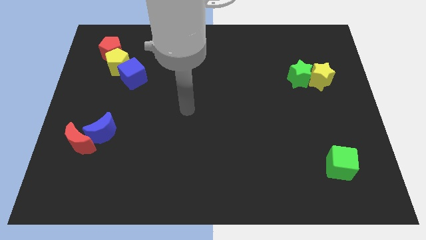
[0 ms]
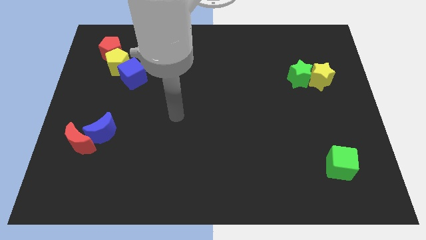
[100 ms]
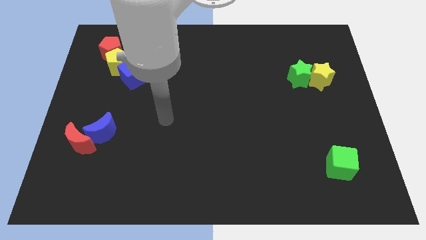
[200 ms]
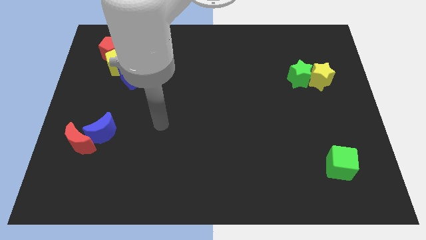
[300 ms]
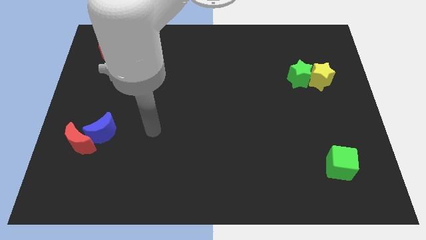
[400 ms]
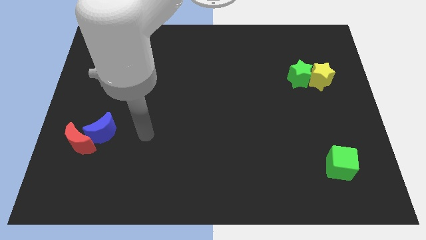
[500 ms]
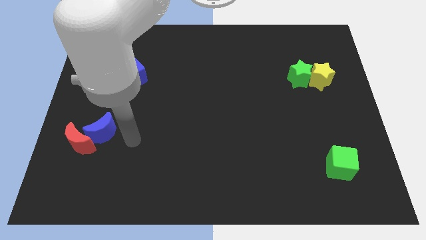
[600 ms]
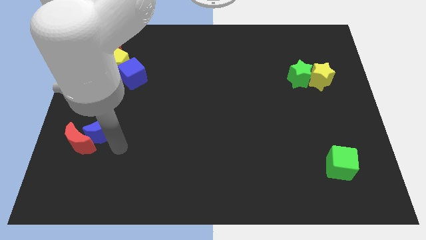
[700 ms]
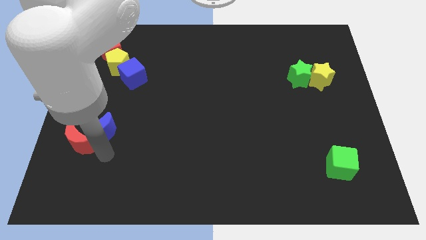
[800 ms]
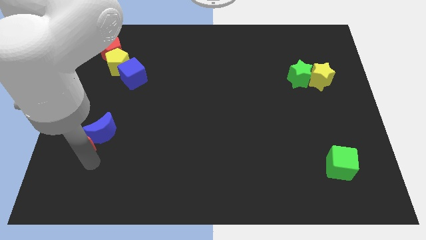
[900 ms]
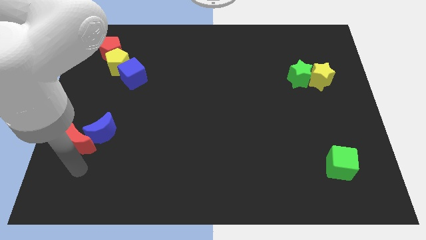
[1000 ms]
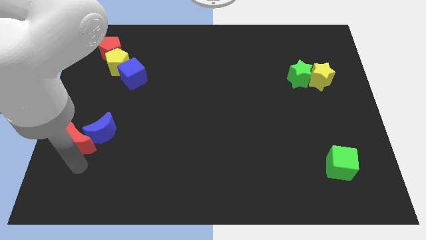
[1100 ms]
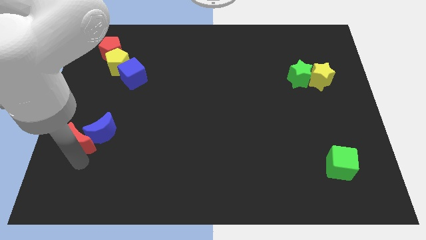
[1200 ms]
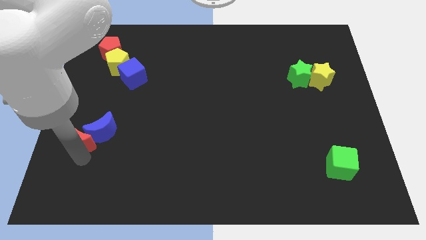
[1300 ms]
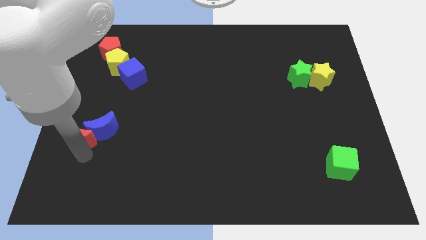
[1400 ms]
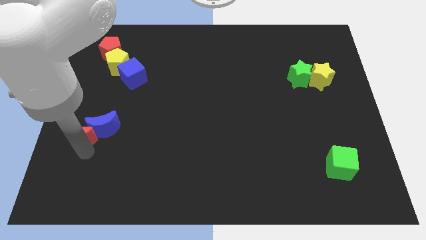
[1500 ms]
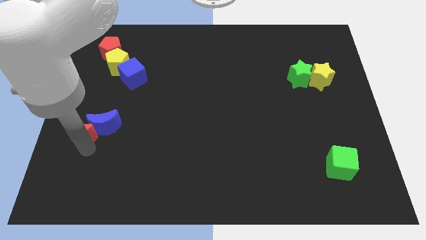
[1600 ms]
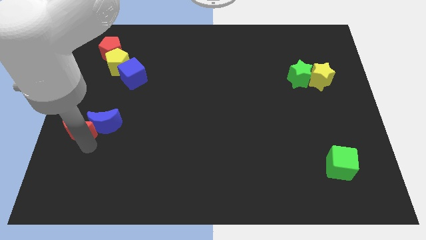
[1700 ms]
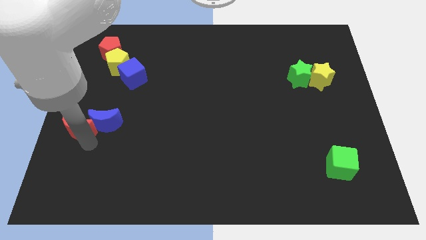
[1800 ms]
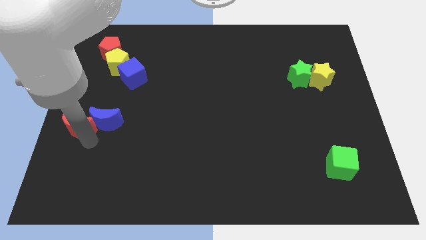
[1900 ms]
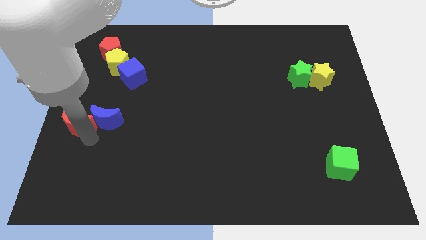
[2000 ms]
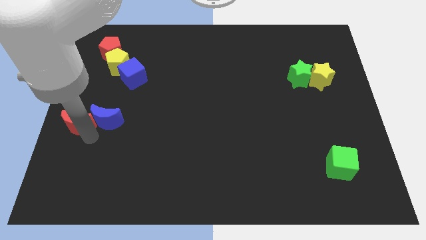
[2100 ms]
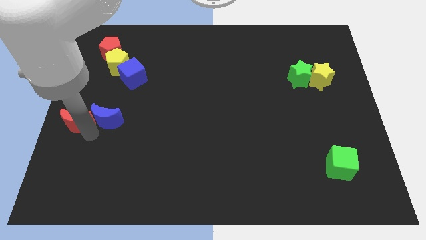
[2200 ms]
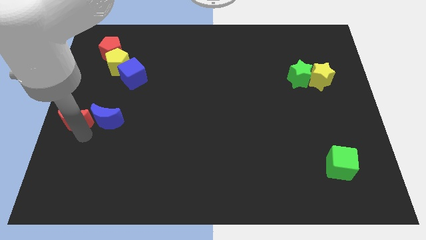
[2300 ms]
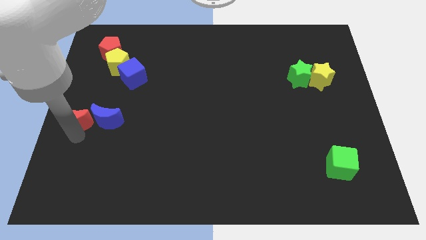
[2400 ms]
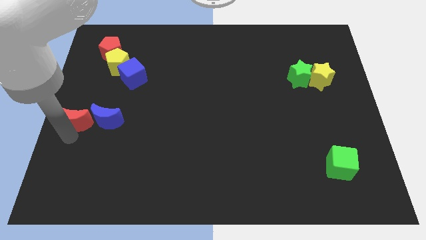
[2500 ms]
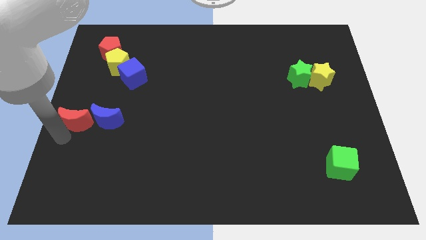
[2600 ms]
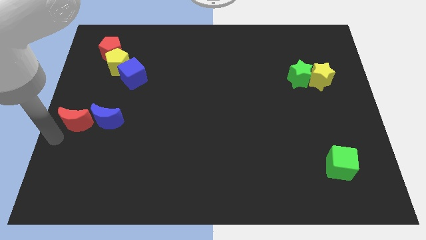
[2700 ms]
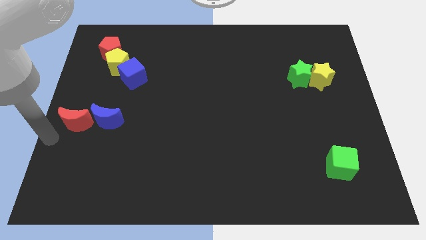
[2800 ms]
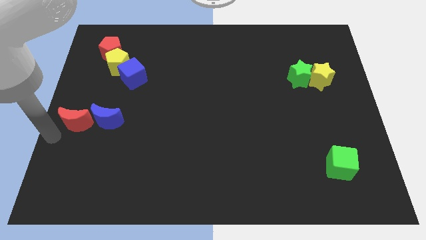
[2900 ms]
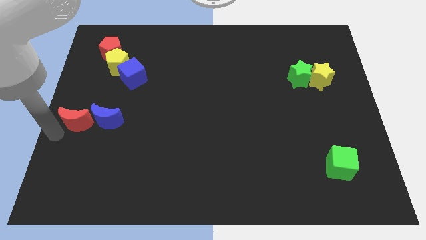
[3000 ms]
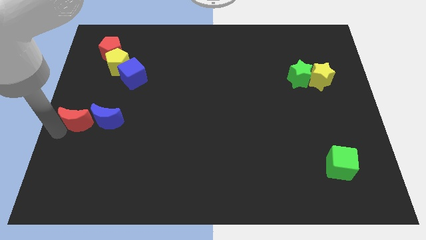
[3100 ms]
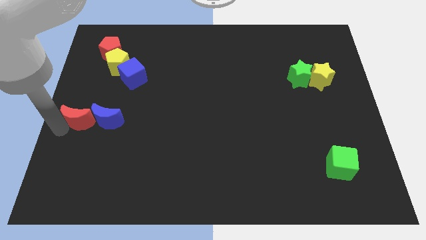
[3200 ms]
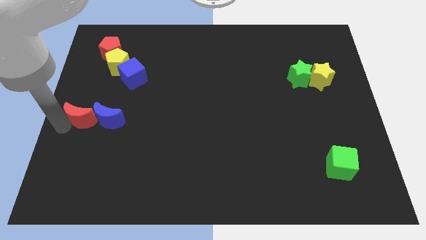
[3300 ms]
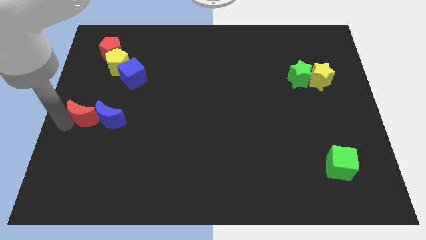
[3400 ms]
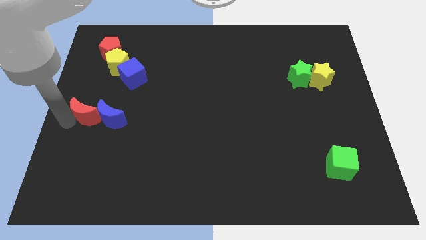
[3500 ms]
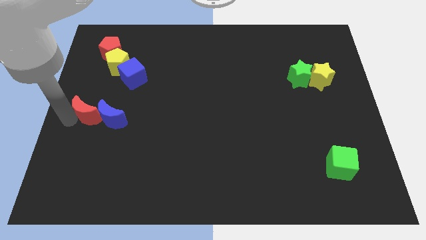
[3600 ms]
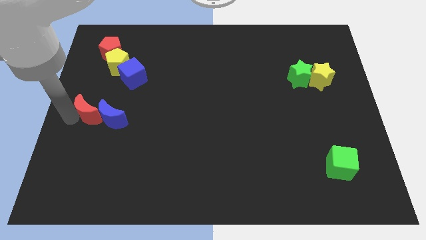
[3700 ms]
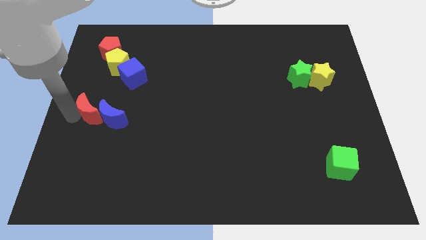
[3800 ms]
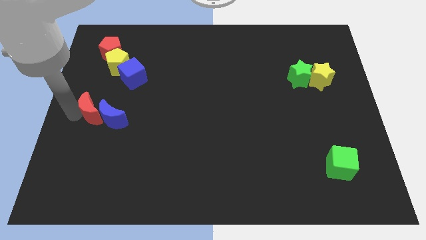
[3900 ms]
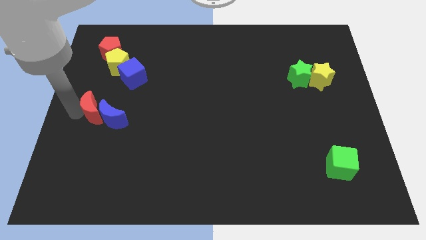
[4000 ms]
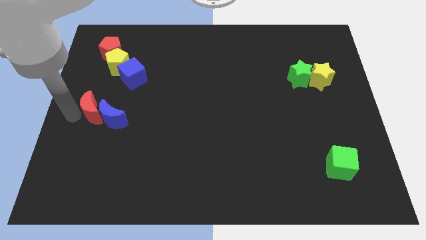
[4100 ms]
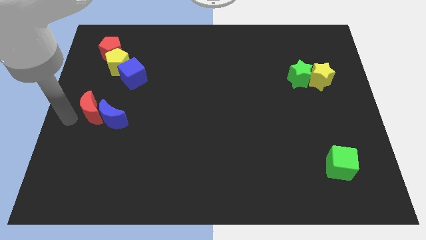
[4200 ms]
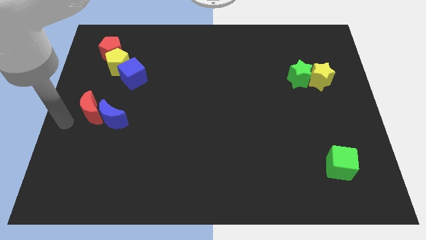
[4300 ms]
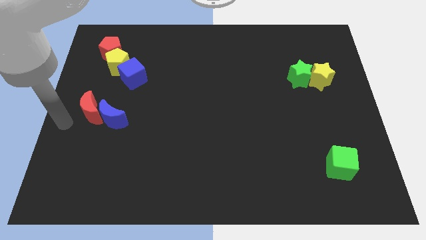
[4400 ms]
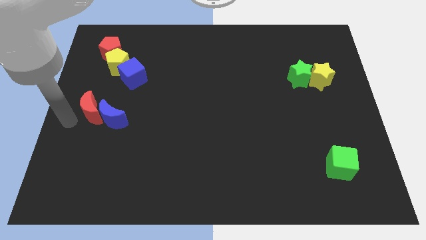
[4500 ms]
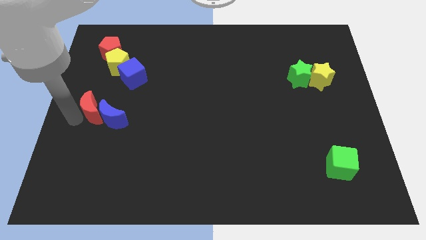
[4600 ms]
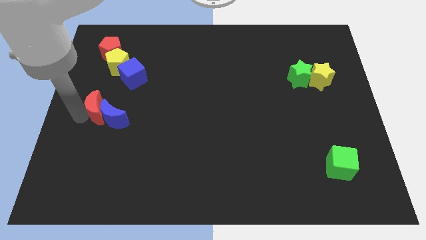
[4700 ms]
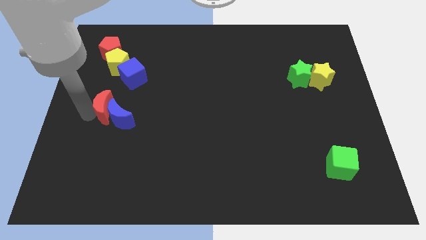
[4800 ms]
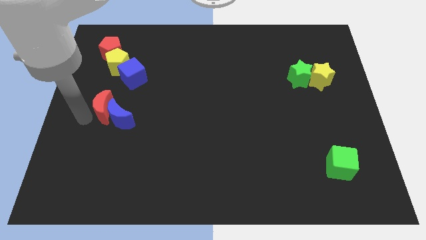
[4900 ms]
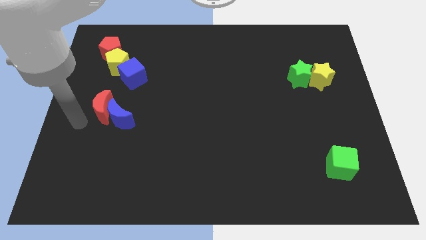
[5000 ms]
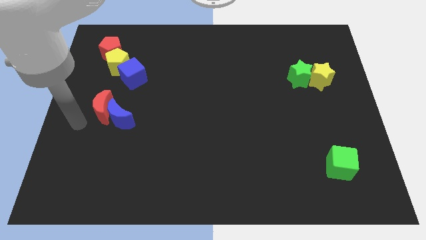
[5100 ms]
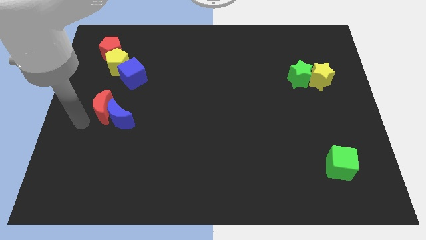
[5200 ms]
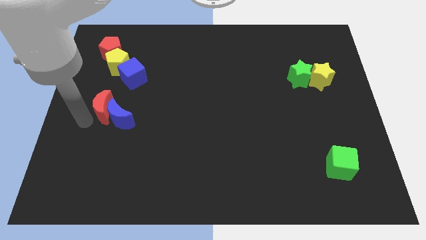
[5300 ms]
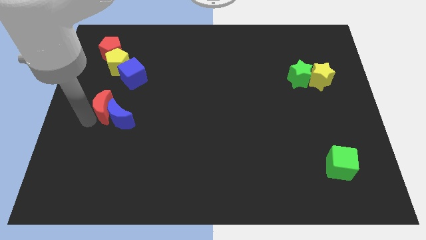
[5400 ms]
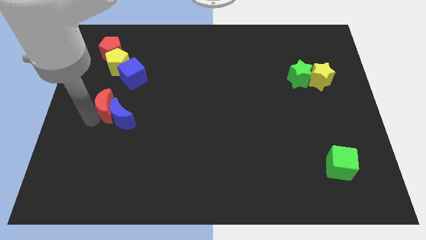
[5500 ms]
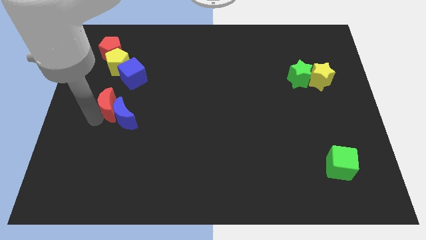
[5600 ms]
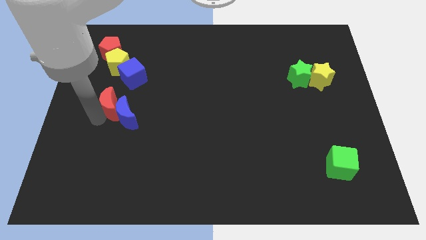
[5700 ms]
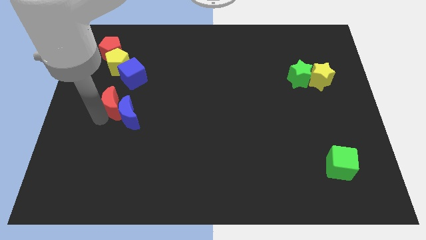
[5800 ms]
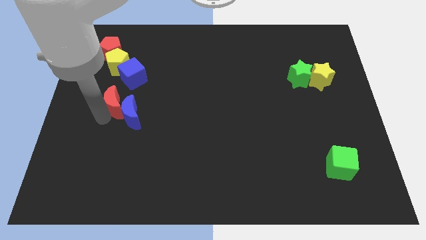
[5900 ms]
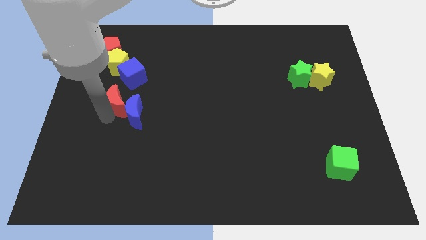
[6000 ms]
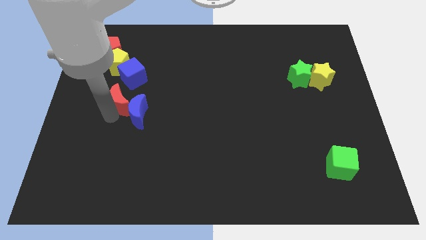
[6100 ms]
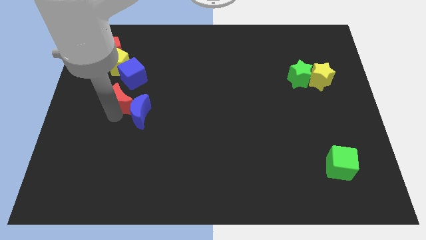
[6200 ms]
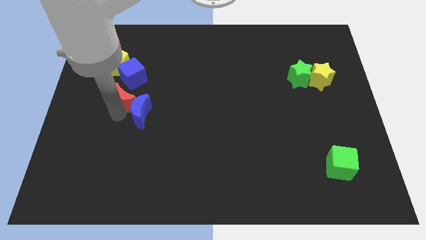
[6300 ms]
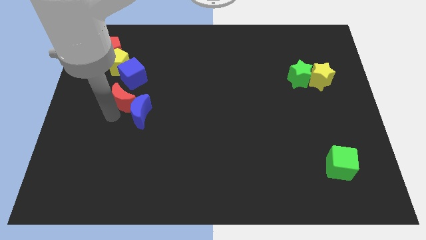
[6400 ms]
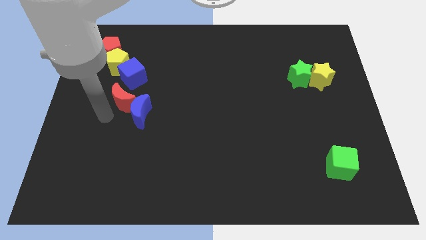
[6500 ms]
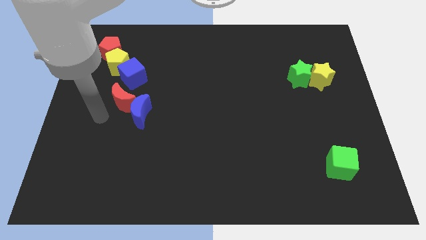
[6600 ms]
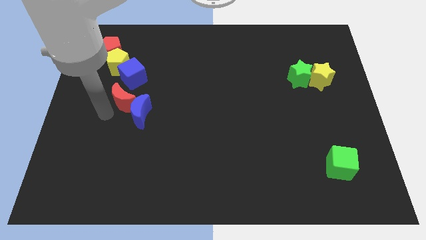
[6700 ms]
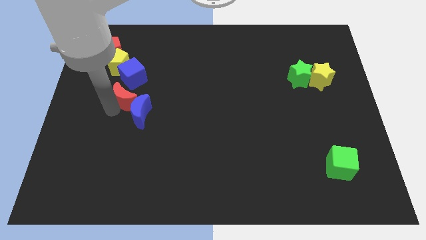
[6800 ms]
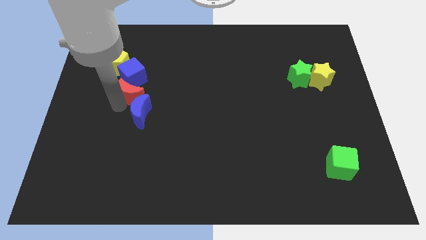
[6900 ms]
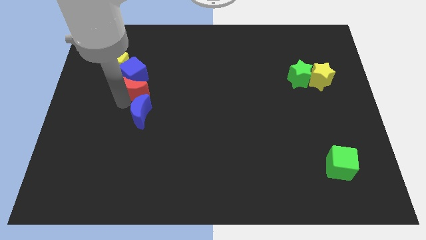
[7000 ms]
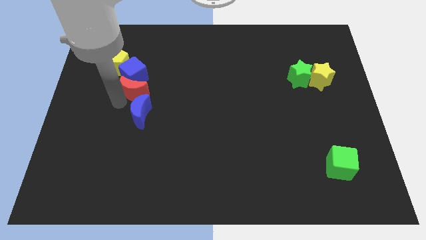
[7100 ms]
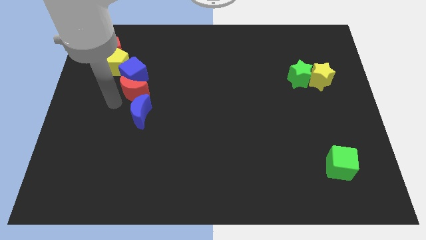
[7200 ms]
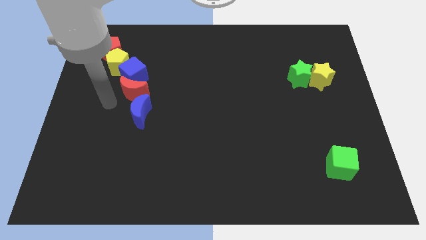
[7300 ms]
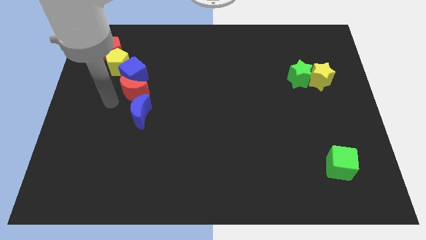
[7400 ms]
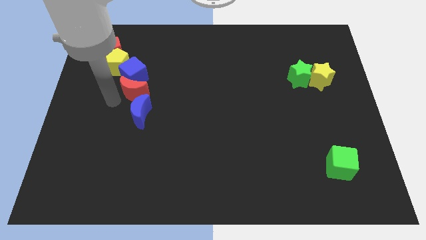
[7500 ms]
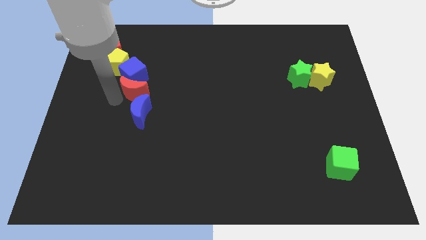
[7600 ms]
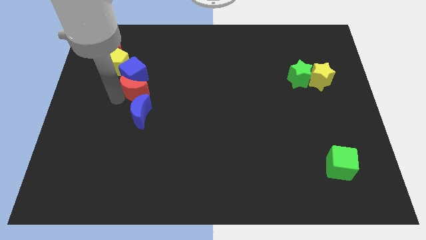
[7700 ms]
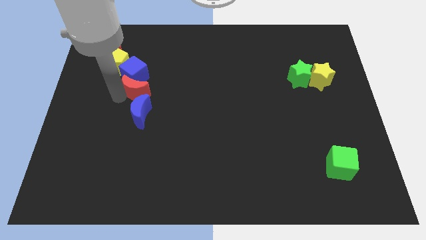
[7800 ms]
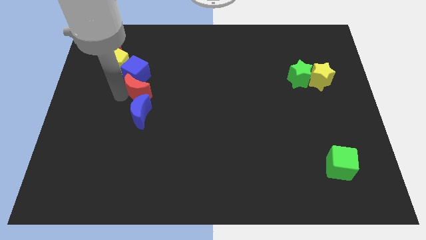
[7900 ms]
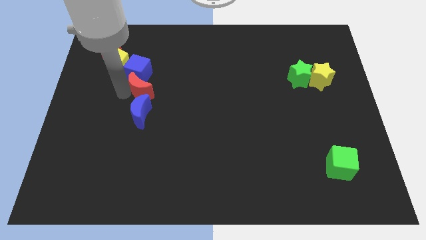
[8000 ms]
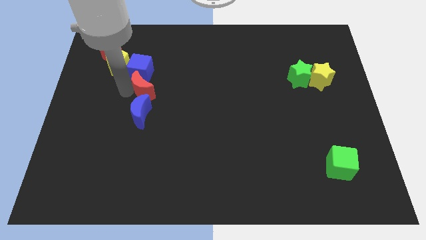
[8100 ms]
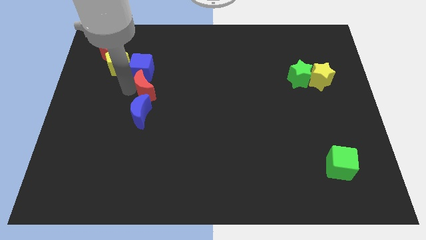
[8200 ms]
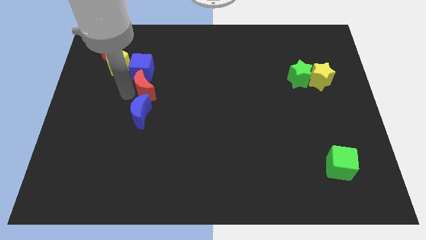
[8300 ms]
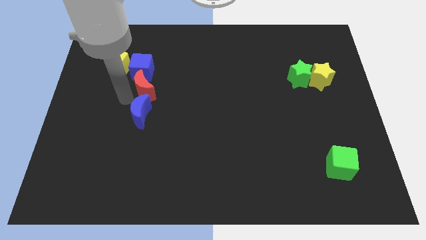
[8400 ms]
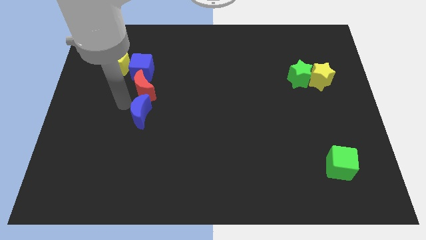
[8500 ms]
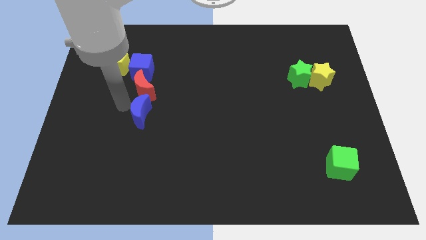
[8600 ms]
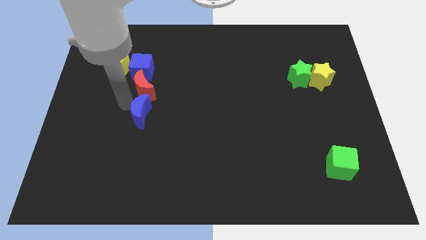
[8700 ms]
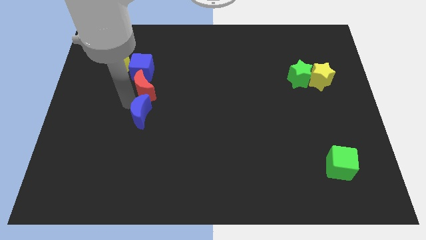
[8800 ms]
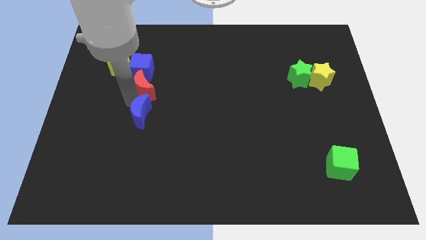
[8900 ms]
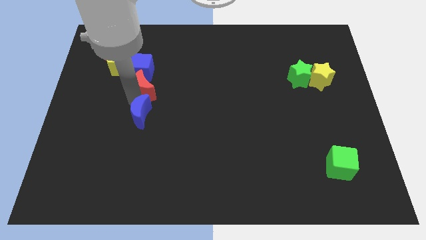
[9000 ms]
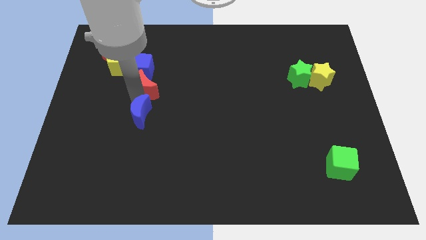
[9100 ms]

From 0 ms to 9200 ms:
push the red moon up and to the right diagonally
